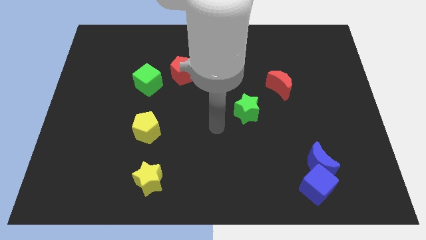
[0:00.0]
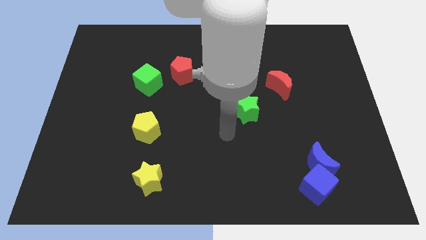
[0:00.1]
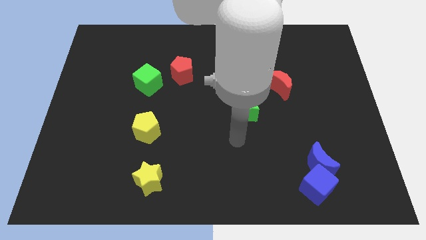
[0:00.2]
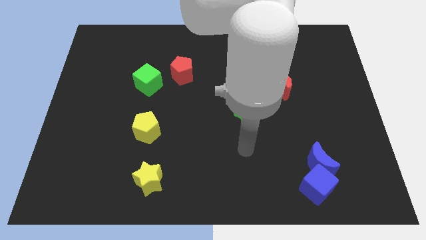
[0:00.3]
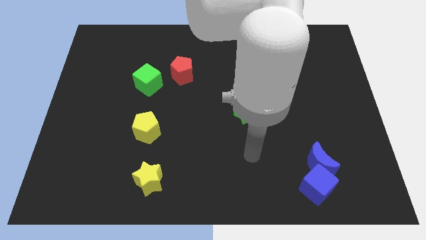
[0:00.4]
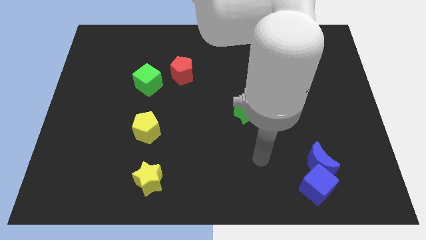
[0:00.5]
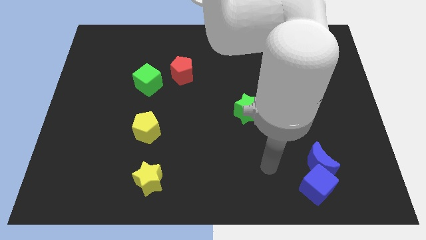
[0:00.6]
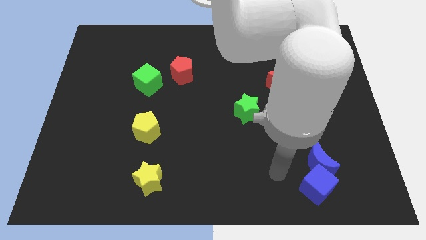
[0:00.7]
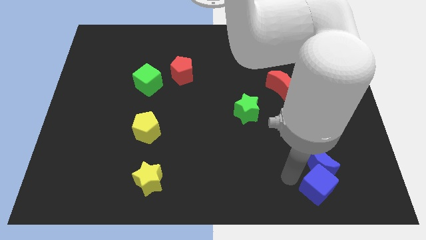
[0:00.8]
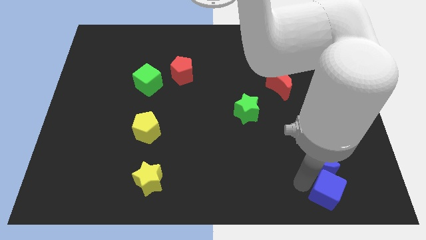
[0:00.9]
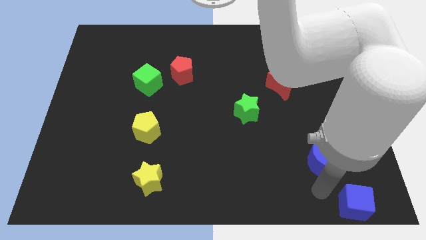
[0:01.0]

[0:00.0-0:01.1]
move the blue moon away from the blue cube

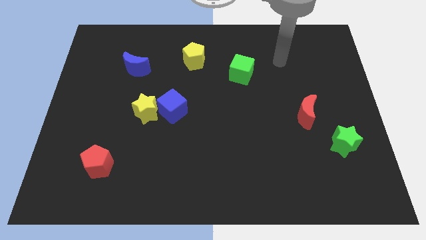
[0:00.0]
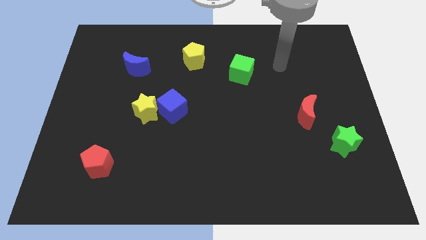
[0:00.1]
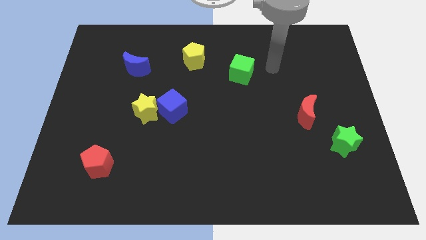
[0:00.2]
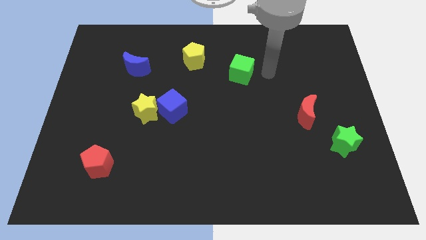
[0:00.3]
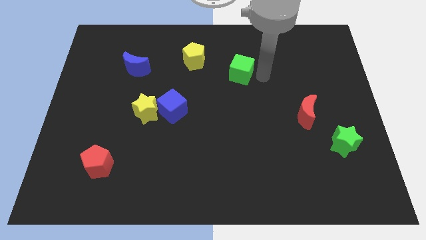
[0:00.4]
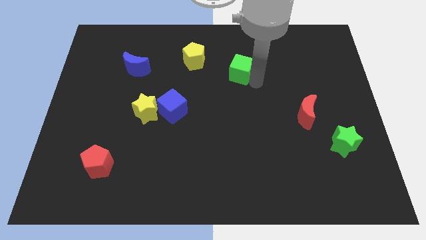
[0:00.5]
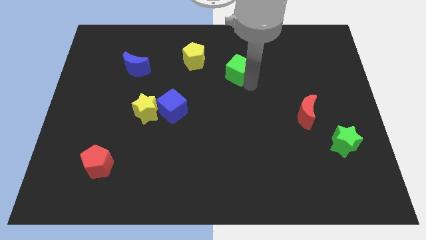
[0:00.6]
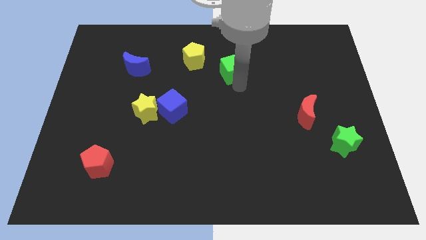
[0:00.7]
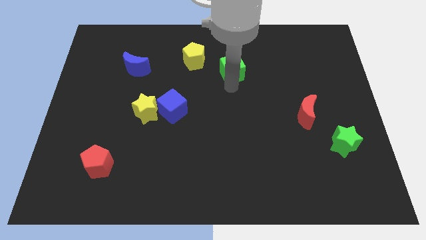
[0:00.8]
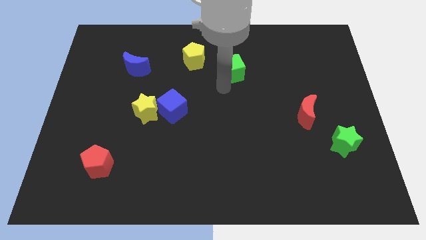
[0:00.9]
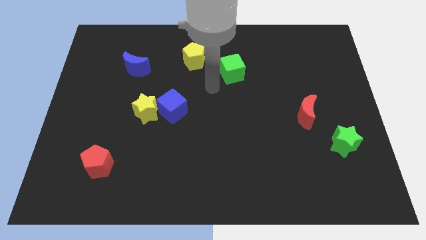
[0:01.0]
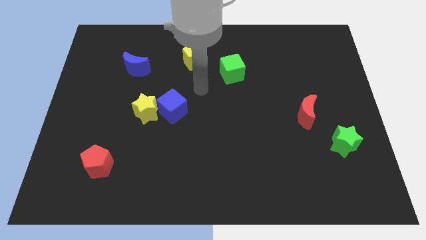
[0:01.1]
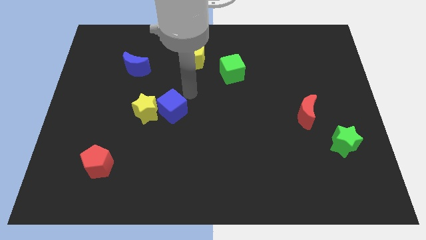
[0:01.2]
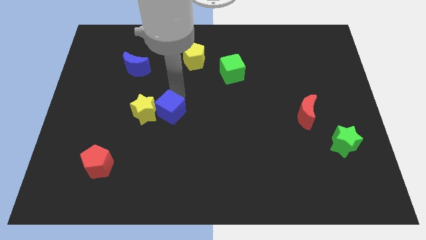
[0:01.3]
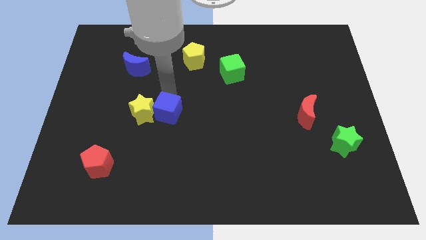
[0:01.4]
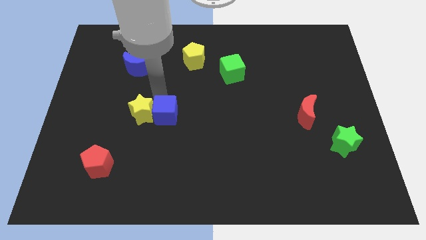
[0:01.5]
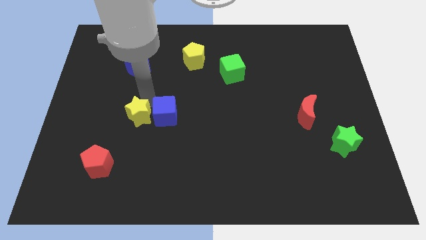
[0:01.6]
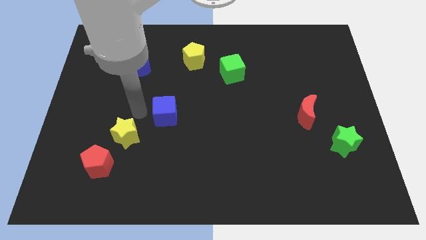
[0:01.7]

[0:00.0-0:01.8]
move the blue cube away from the yellow star

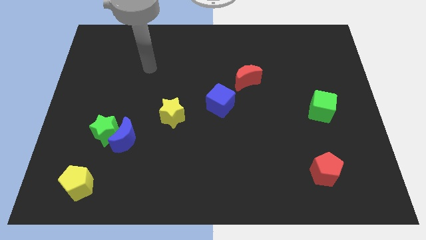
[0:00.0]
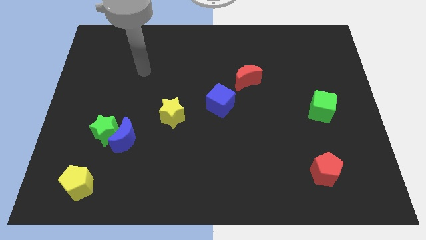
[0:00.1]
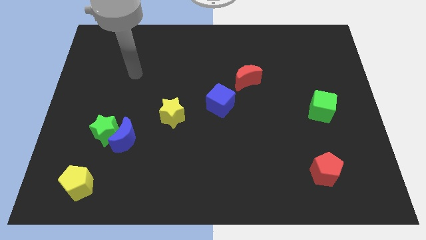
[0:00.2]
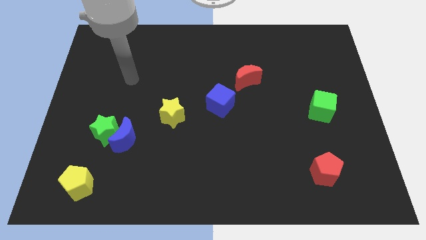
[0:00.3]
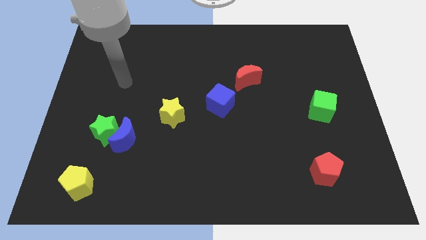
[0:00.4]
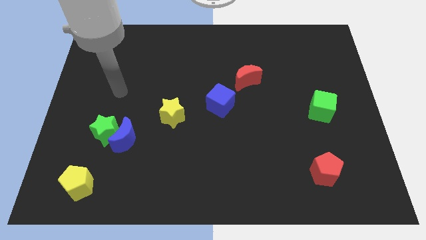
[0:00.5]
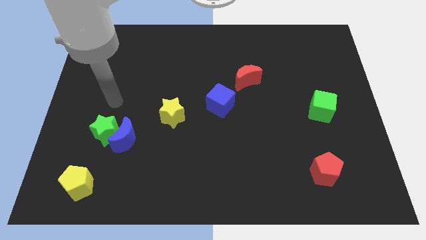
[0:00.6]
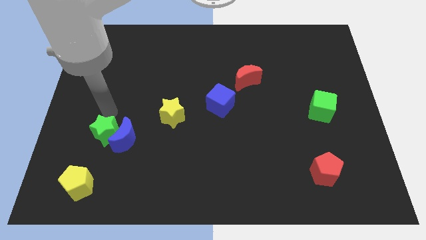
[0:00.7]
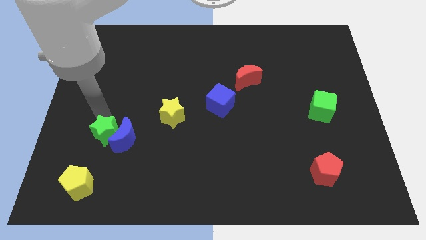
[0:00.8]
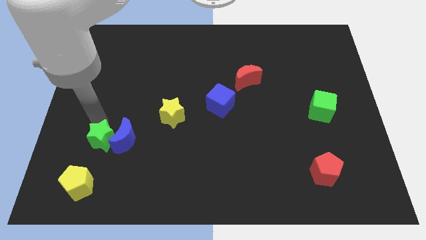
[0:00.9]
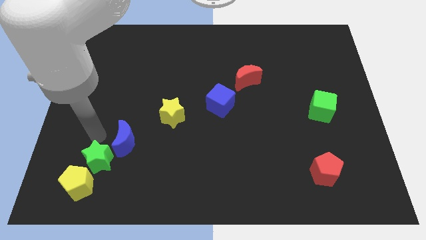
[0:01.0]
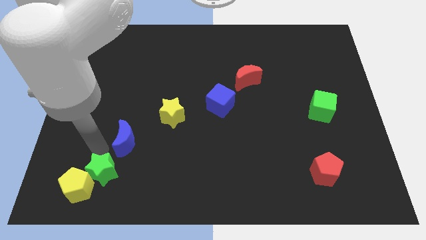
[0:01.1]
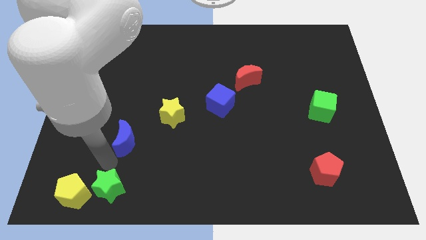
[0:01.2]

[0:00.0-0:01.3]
move the blue moon away from the green star

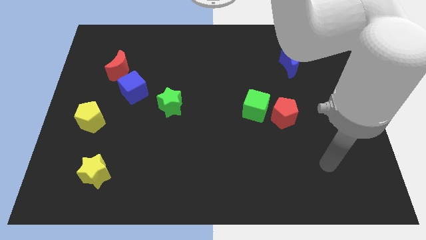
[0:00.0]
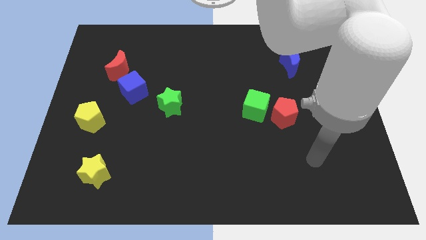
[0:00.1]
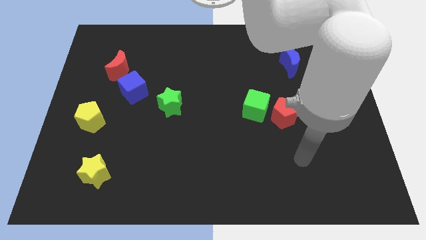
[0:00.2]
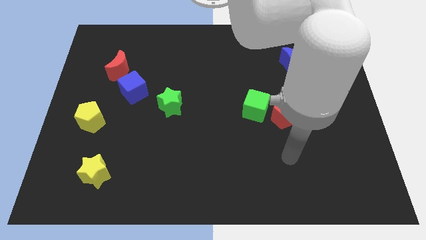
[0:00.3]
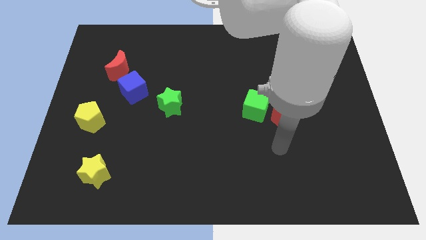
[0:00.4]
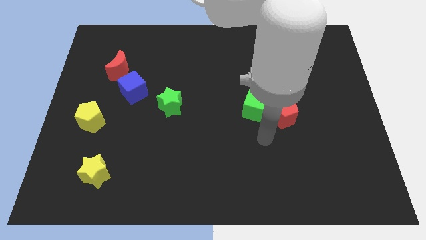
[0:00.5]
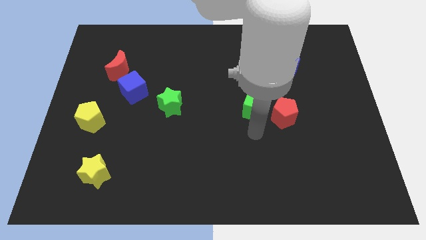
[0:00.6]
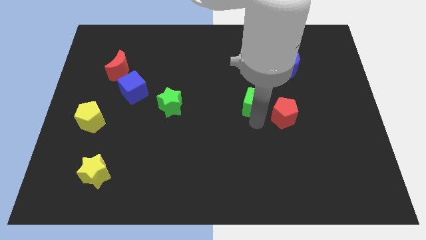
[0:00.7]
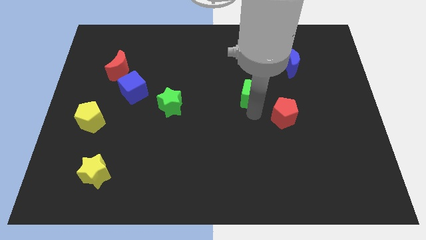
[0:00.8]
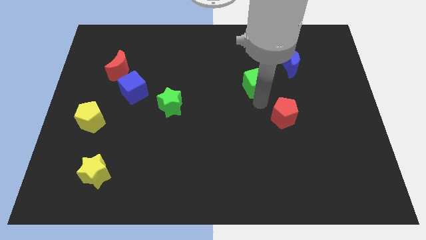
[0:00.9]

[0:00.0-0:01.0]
pull the red pentagon apart from the green cube

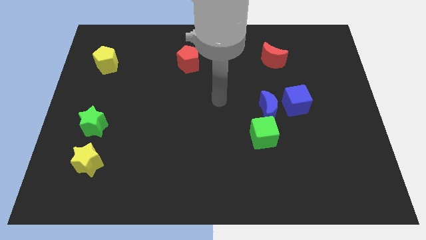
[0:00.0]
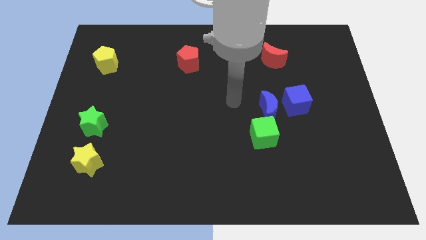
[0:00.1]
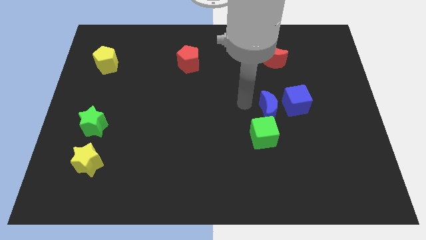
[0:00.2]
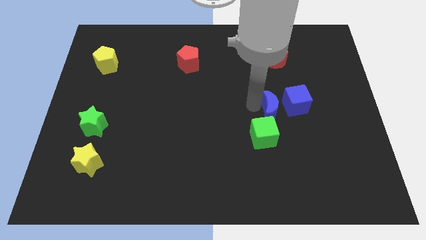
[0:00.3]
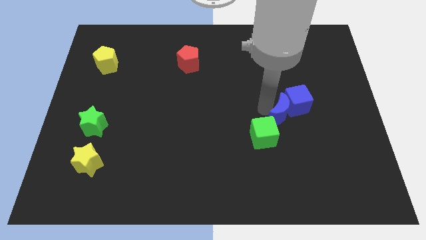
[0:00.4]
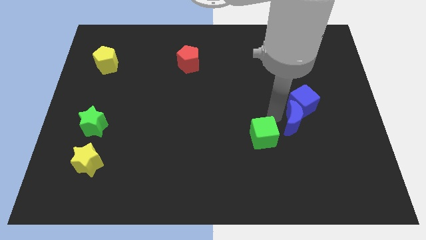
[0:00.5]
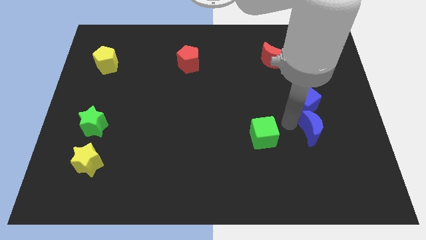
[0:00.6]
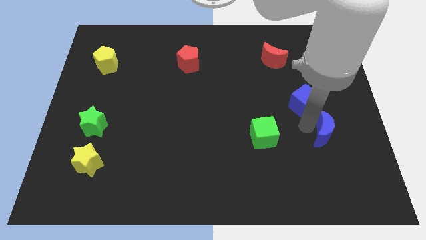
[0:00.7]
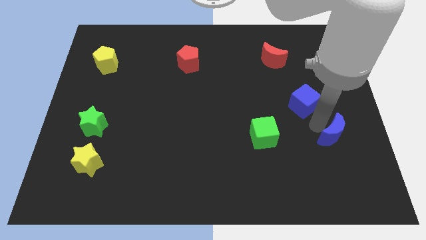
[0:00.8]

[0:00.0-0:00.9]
move the blue cube away from the blue moon

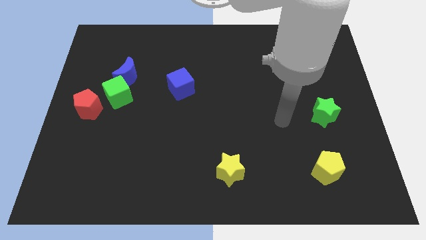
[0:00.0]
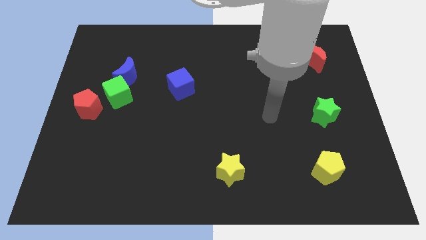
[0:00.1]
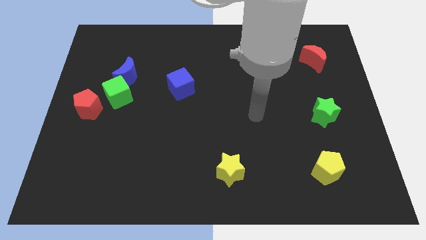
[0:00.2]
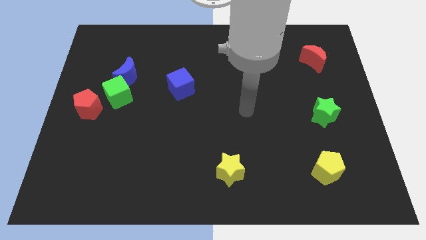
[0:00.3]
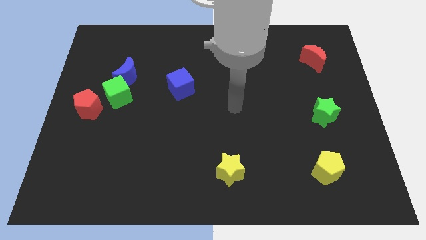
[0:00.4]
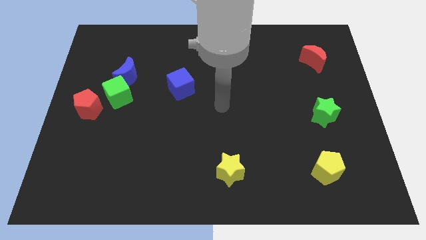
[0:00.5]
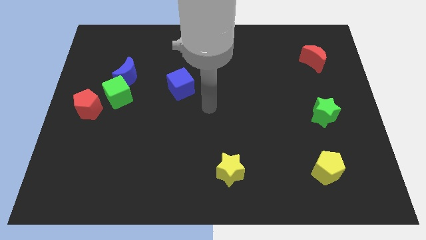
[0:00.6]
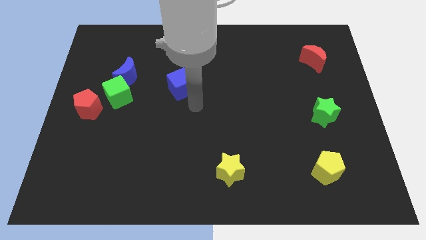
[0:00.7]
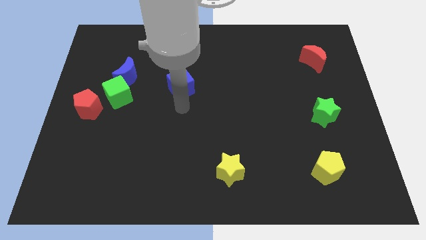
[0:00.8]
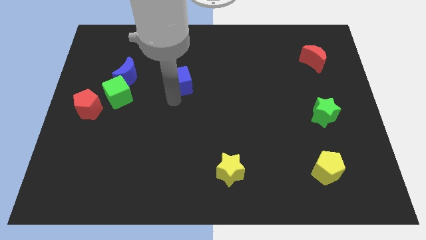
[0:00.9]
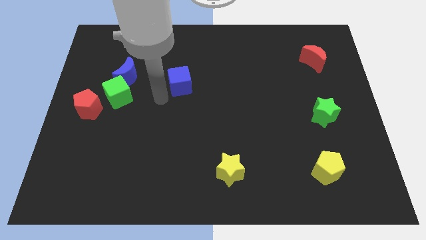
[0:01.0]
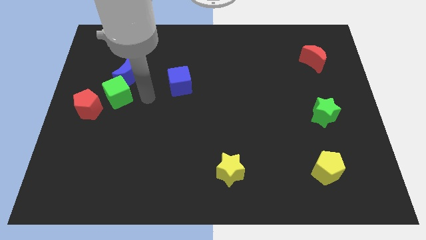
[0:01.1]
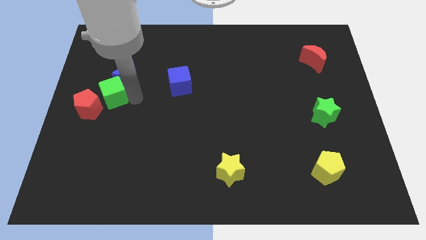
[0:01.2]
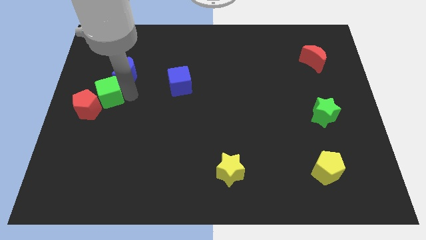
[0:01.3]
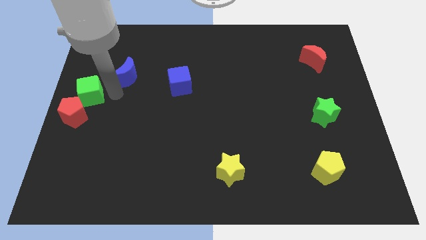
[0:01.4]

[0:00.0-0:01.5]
move the blue moon away from the green cube

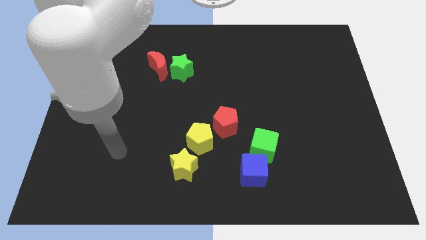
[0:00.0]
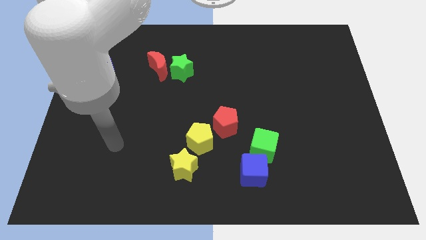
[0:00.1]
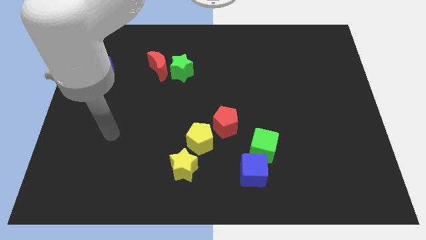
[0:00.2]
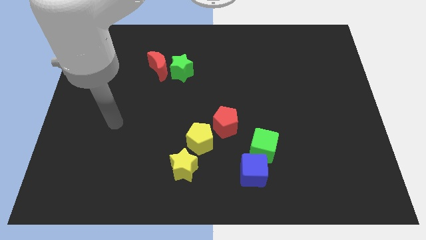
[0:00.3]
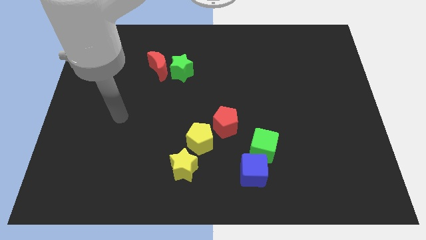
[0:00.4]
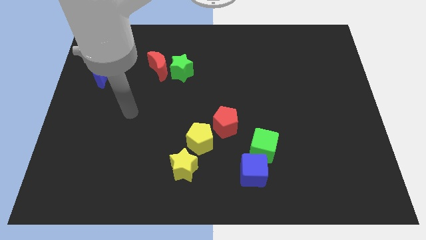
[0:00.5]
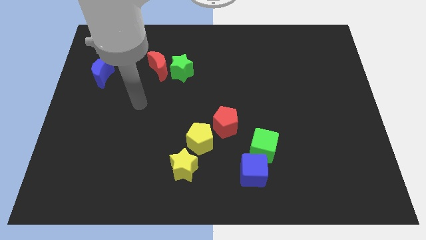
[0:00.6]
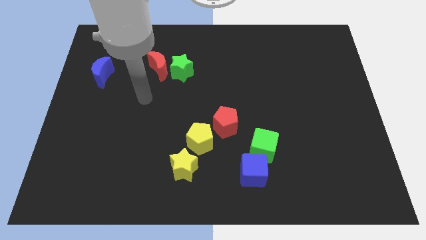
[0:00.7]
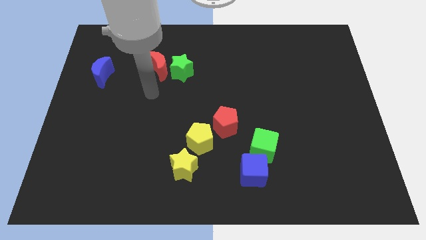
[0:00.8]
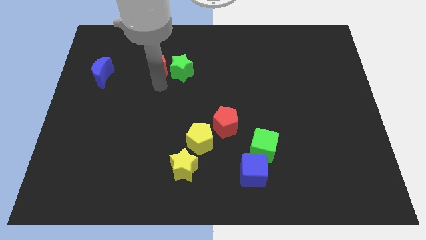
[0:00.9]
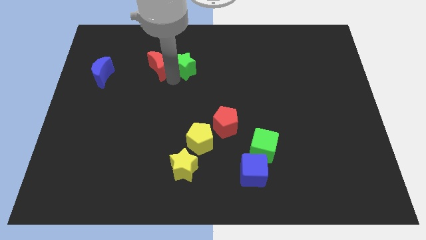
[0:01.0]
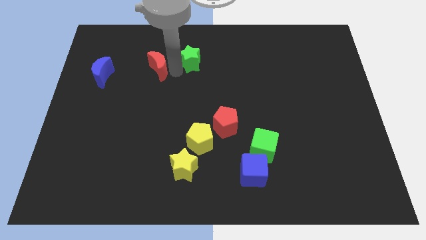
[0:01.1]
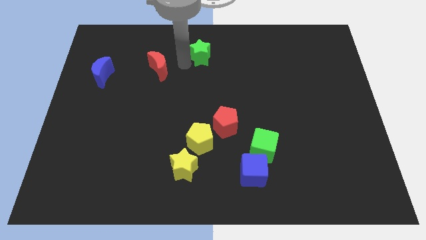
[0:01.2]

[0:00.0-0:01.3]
move the red moon away from the green star

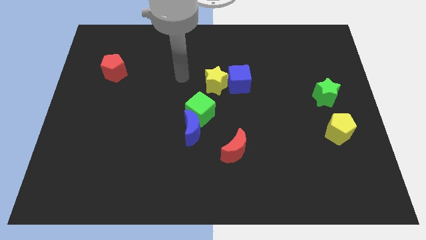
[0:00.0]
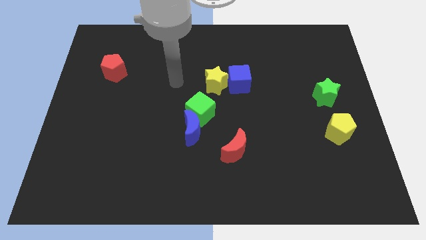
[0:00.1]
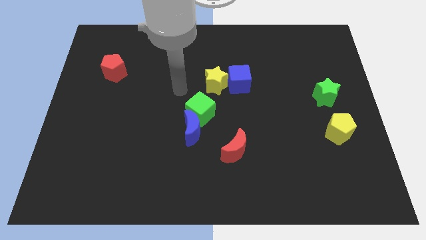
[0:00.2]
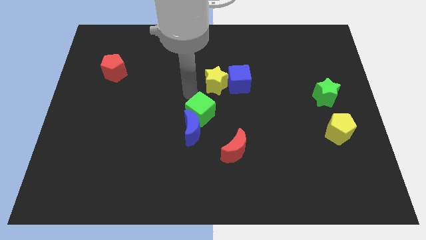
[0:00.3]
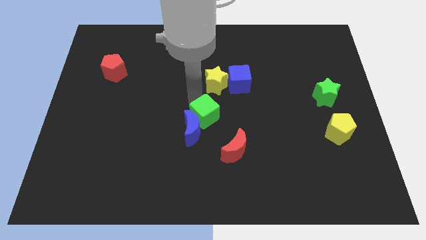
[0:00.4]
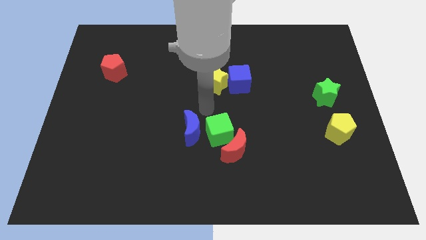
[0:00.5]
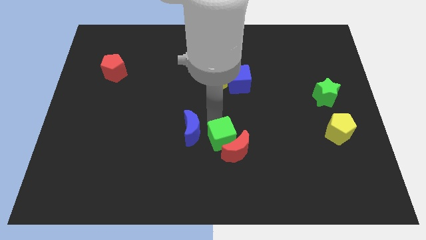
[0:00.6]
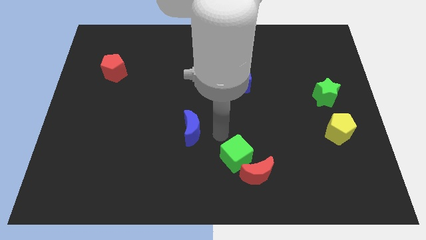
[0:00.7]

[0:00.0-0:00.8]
pull the blue moon apart from the green cube
